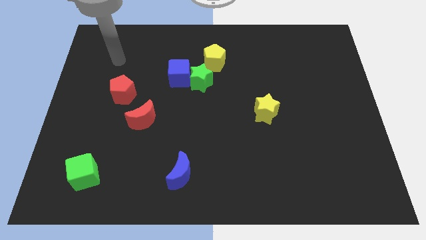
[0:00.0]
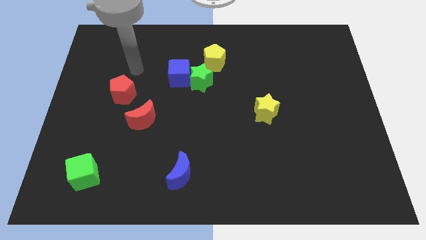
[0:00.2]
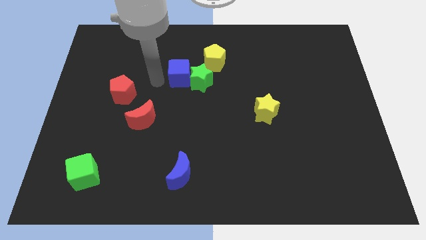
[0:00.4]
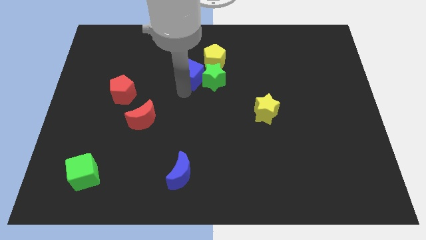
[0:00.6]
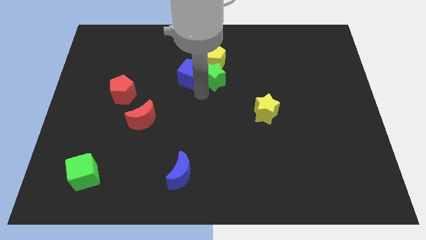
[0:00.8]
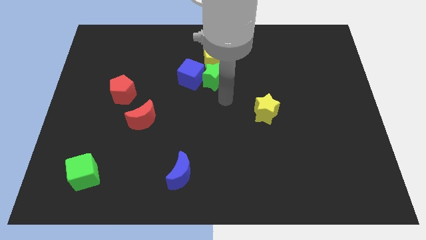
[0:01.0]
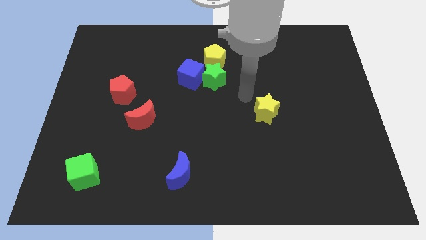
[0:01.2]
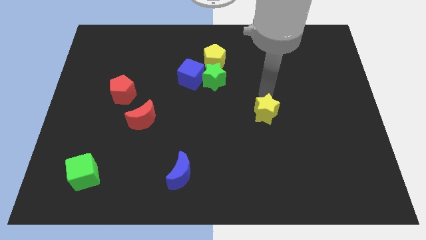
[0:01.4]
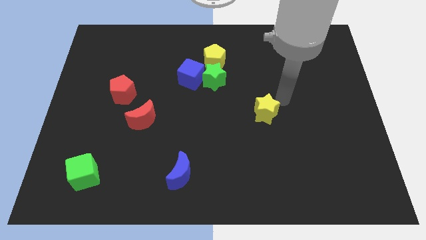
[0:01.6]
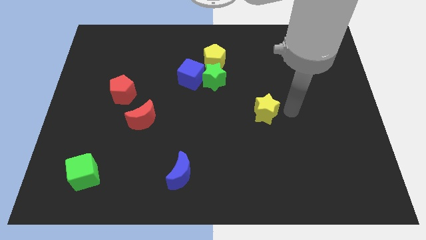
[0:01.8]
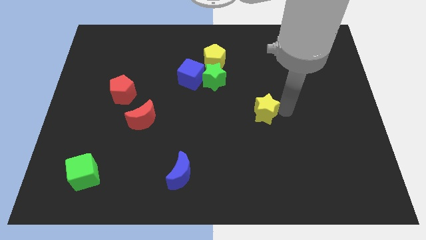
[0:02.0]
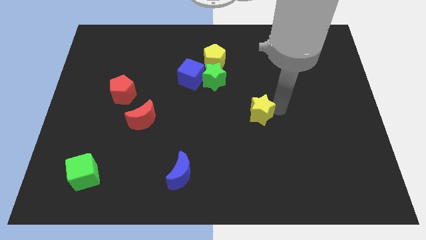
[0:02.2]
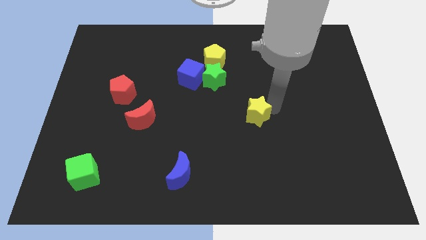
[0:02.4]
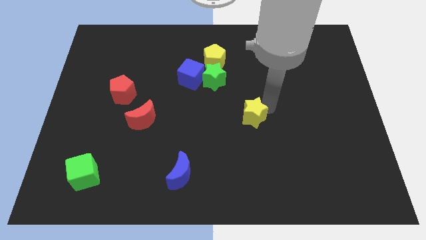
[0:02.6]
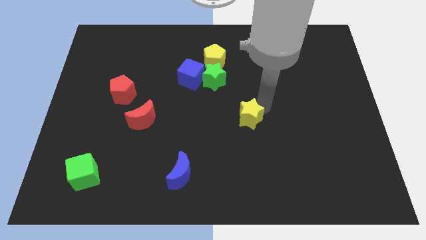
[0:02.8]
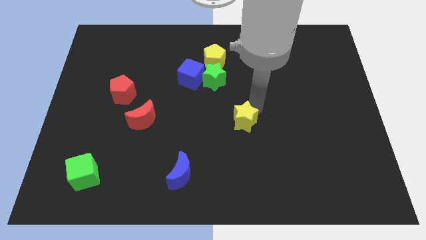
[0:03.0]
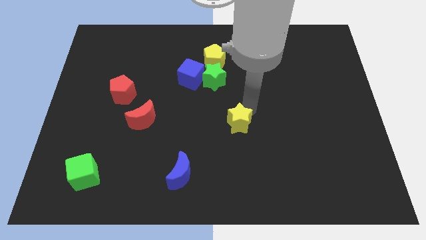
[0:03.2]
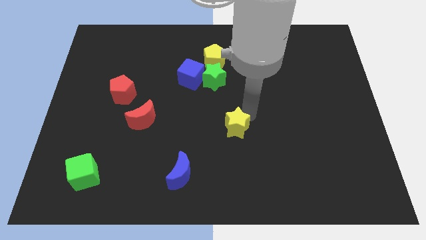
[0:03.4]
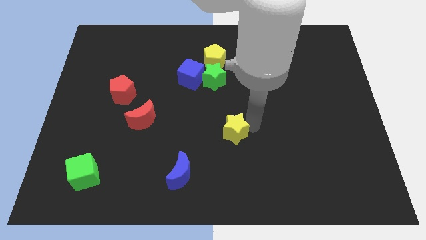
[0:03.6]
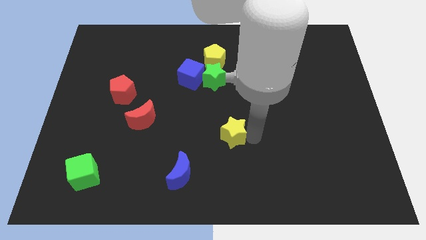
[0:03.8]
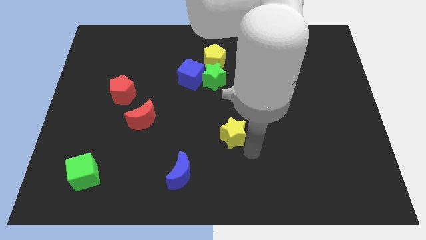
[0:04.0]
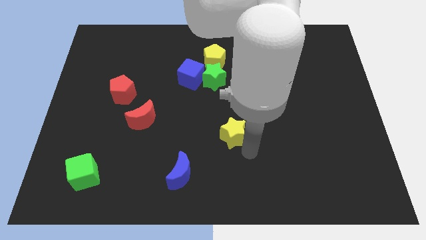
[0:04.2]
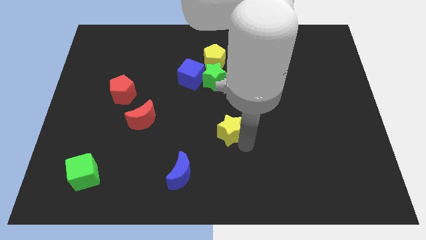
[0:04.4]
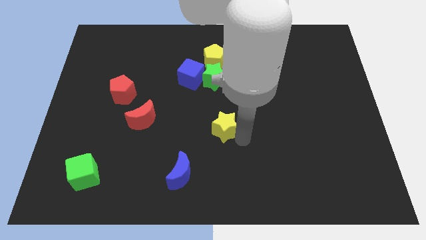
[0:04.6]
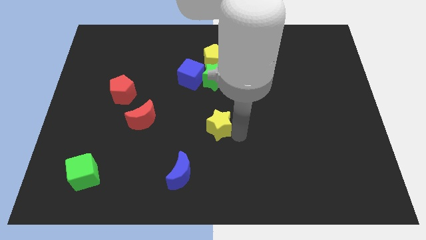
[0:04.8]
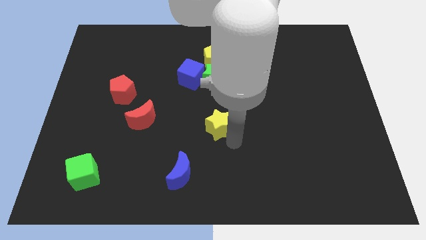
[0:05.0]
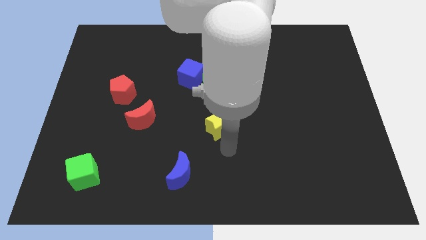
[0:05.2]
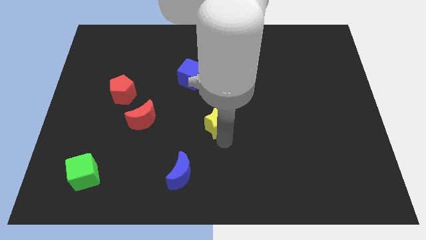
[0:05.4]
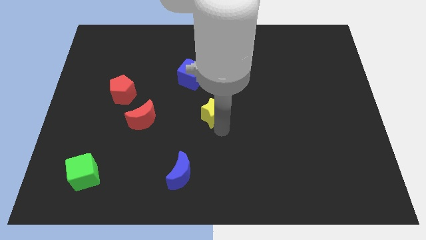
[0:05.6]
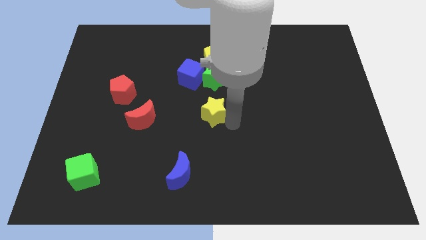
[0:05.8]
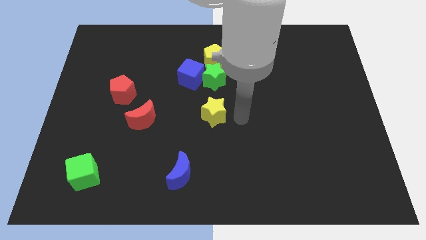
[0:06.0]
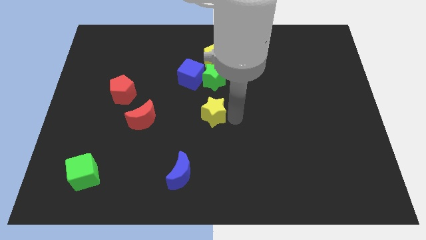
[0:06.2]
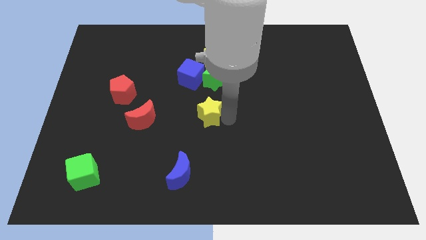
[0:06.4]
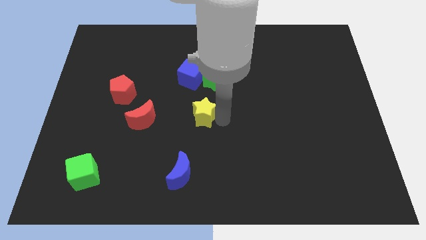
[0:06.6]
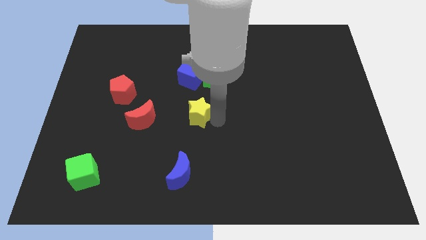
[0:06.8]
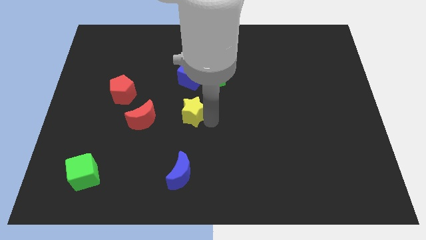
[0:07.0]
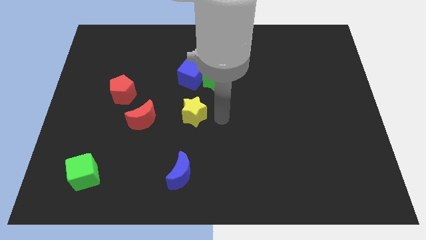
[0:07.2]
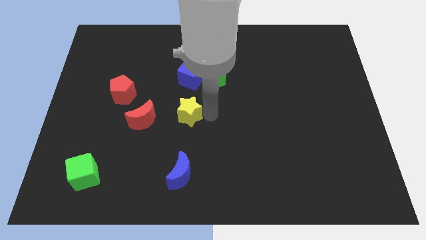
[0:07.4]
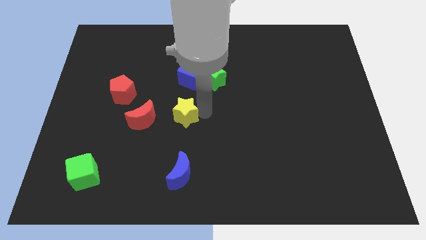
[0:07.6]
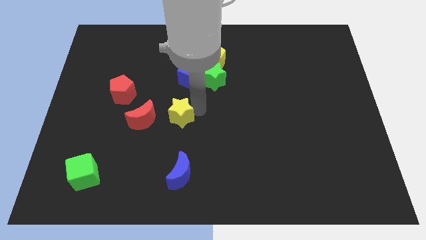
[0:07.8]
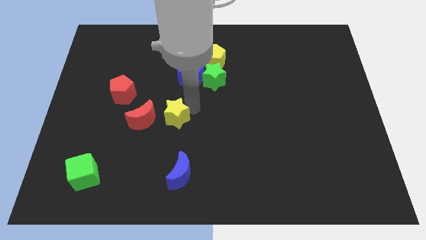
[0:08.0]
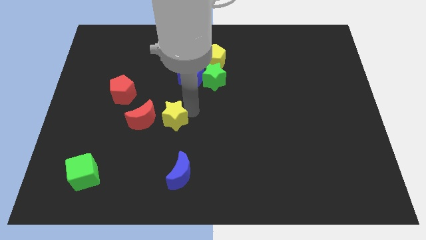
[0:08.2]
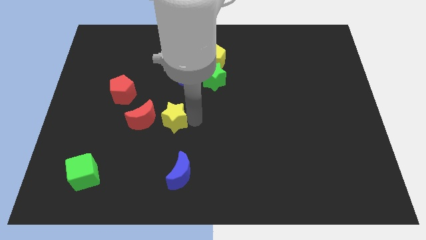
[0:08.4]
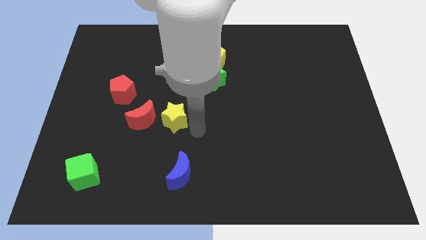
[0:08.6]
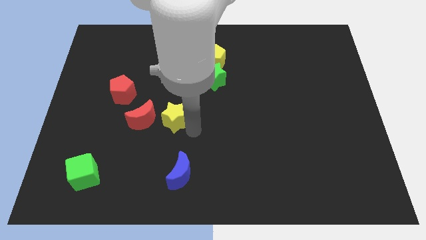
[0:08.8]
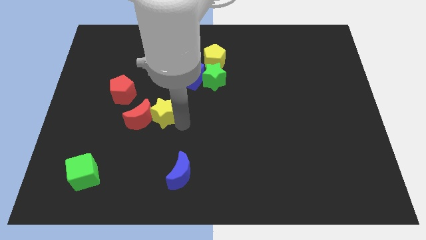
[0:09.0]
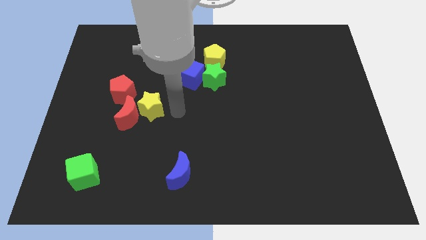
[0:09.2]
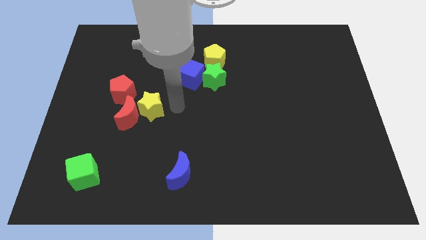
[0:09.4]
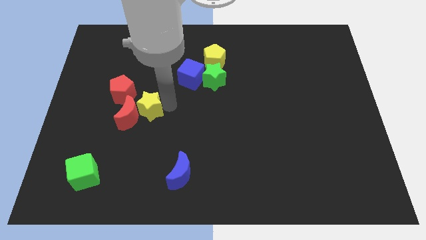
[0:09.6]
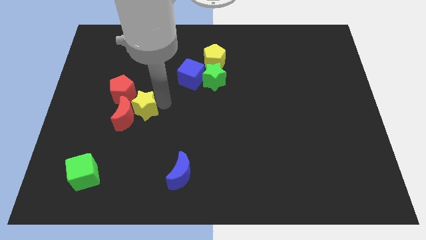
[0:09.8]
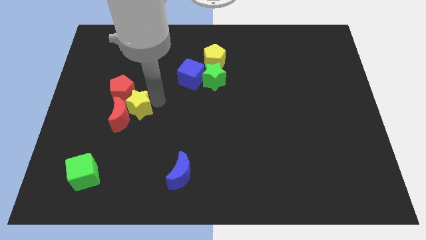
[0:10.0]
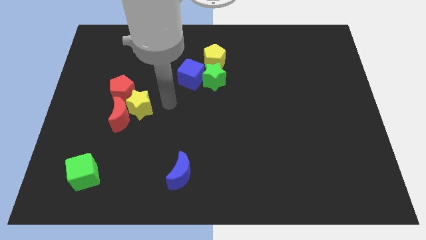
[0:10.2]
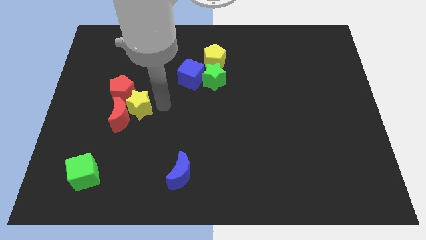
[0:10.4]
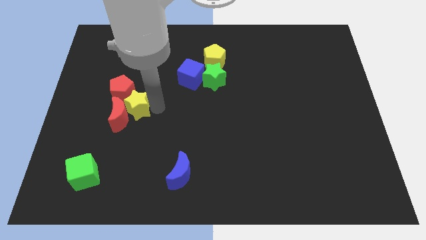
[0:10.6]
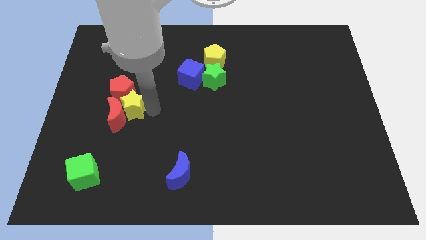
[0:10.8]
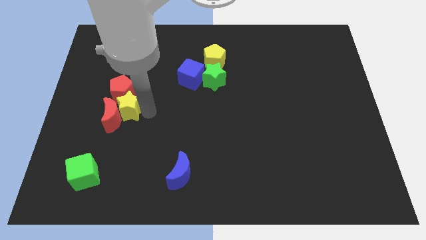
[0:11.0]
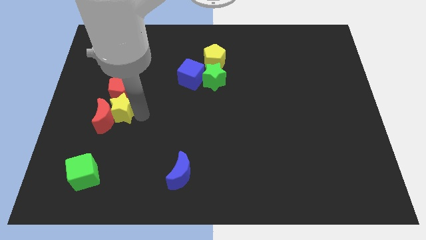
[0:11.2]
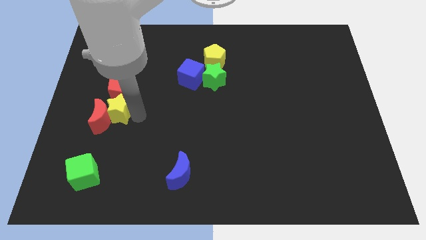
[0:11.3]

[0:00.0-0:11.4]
put the yellow star to the bottom left of the red pentagon

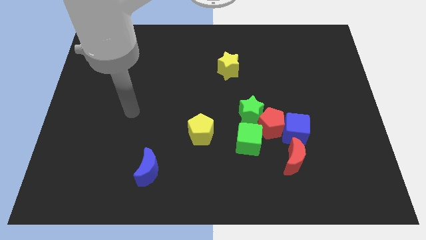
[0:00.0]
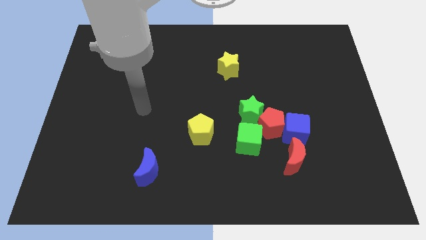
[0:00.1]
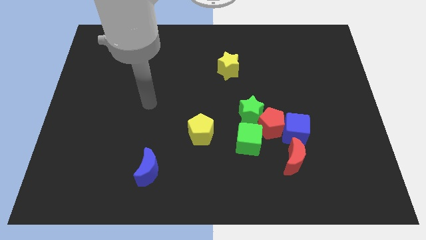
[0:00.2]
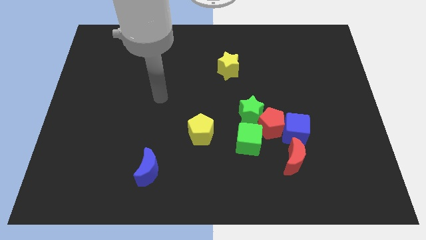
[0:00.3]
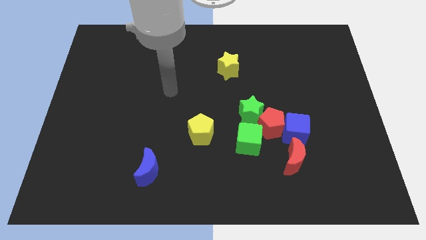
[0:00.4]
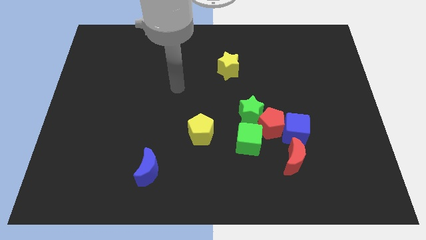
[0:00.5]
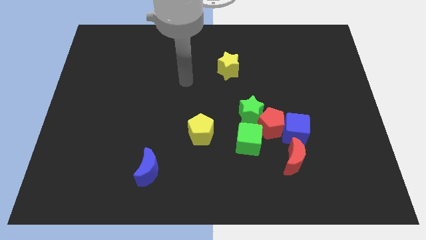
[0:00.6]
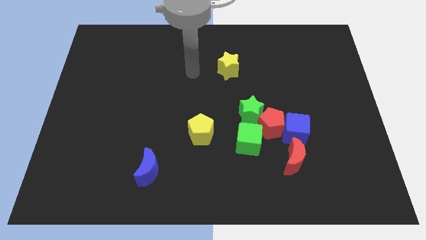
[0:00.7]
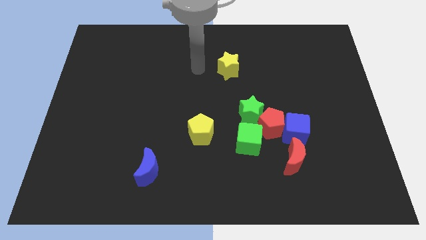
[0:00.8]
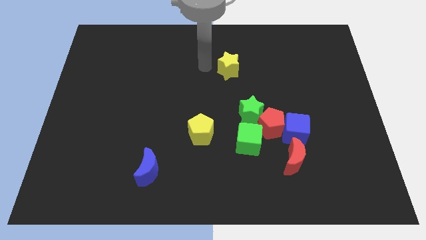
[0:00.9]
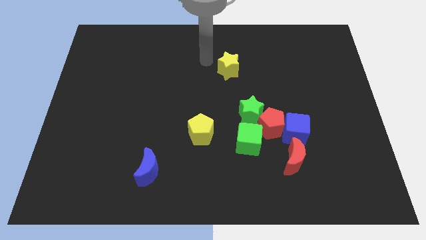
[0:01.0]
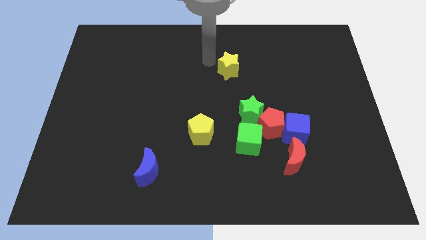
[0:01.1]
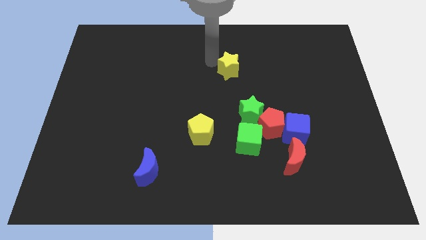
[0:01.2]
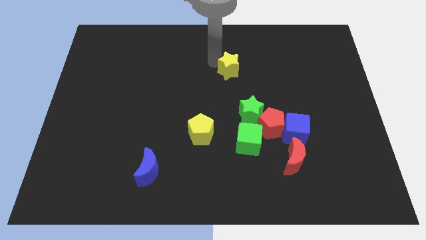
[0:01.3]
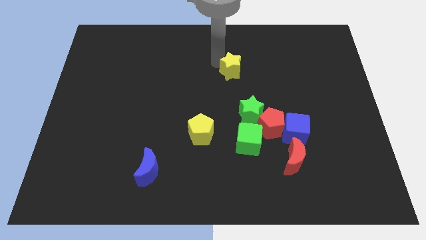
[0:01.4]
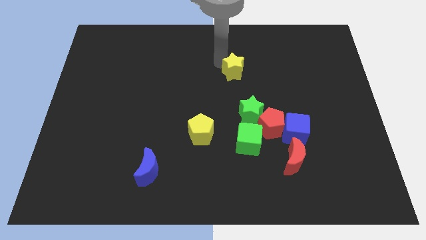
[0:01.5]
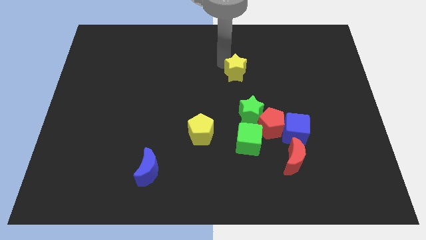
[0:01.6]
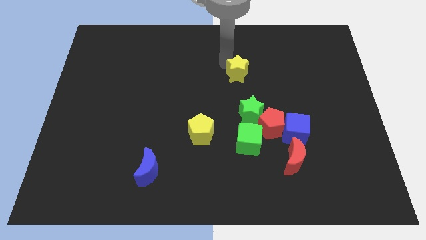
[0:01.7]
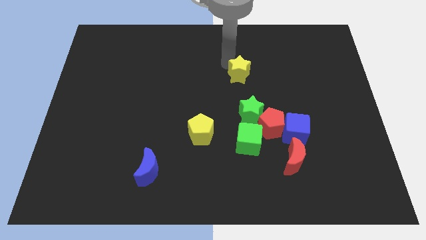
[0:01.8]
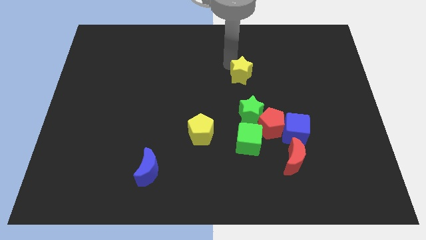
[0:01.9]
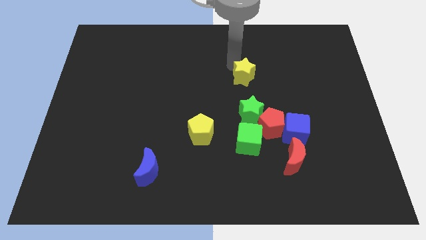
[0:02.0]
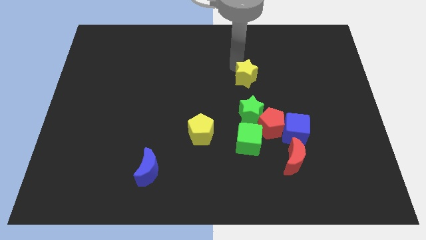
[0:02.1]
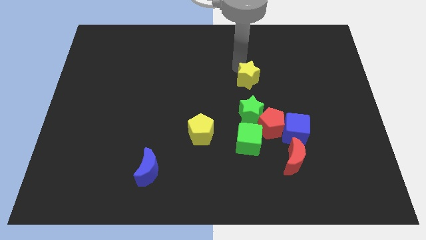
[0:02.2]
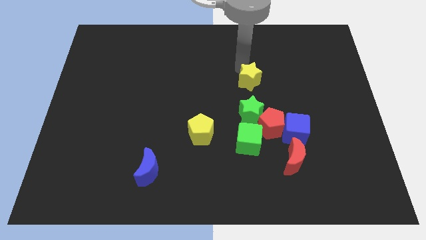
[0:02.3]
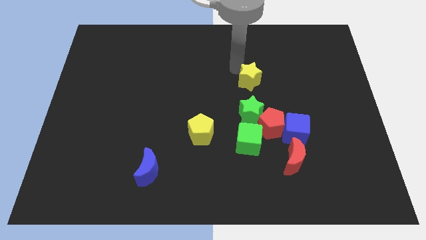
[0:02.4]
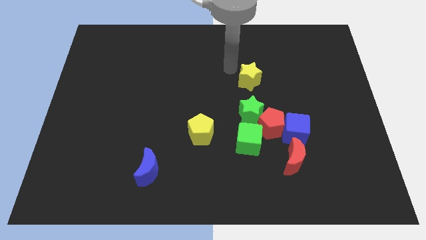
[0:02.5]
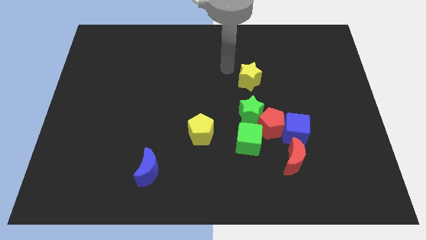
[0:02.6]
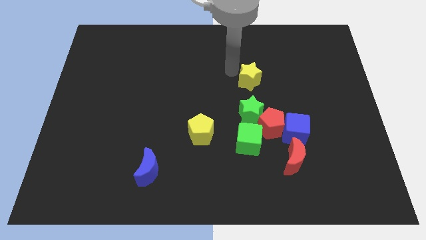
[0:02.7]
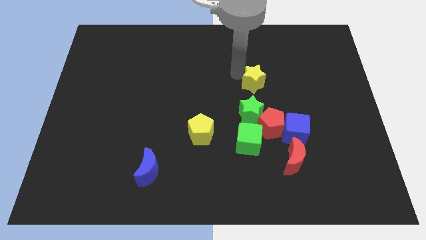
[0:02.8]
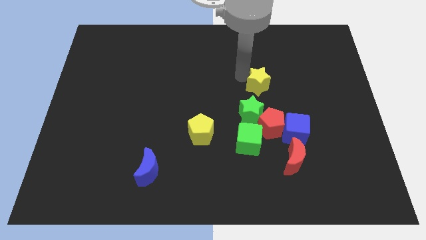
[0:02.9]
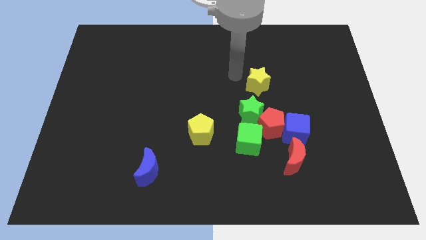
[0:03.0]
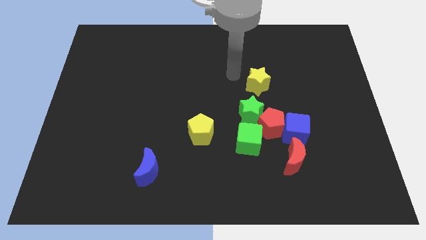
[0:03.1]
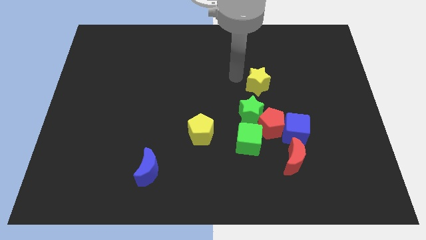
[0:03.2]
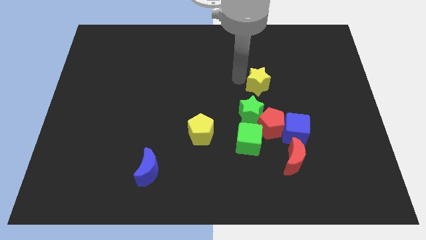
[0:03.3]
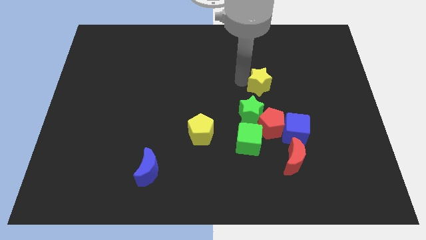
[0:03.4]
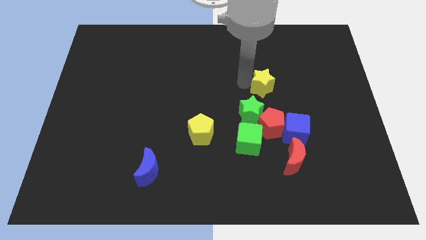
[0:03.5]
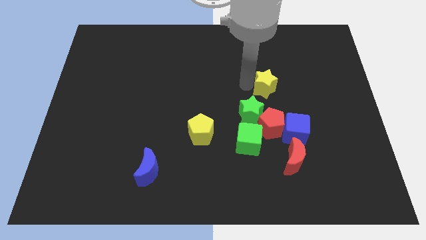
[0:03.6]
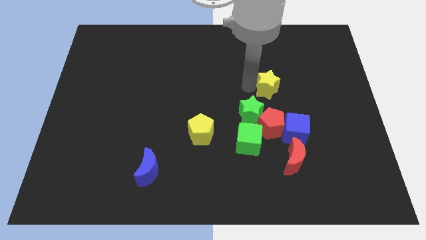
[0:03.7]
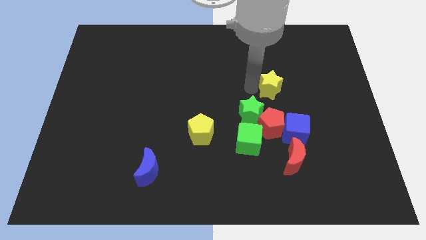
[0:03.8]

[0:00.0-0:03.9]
push the yellow star to the top of the blue cube
